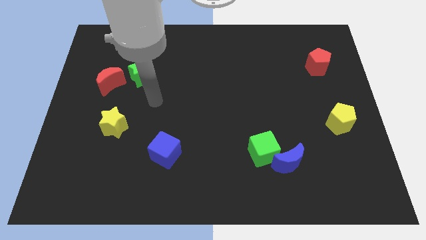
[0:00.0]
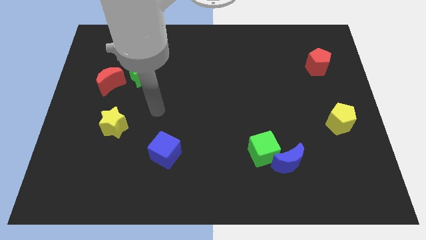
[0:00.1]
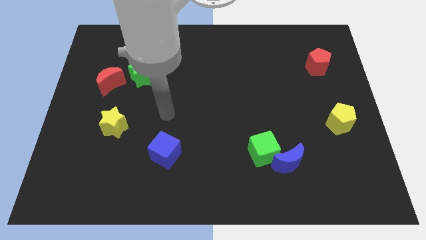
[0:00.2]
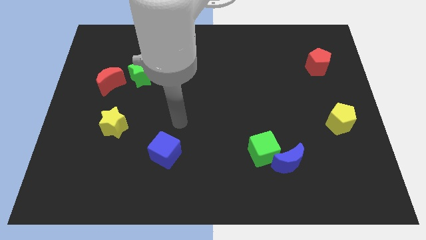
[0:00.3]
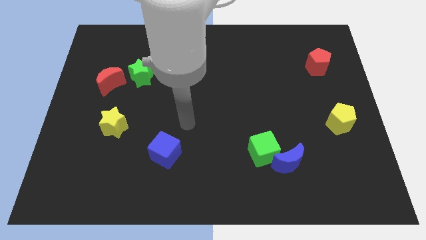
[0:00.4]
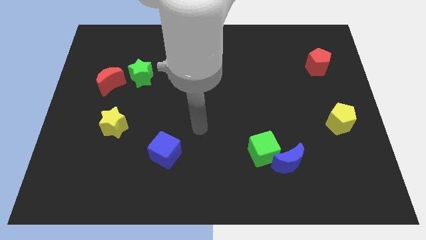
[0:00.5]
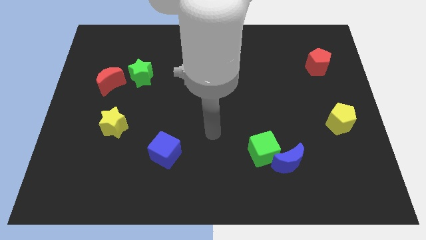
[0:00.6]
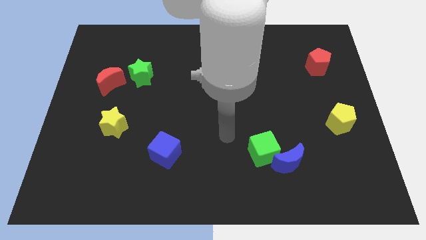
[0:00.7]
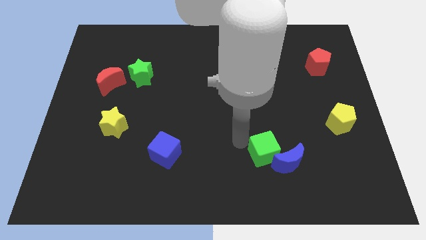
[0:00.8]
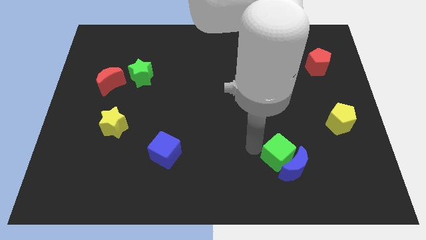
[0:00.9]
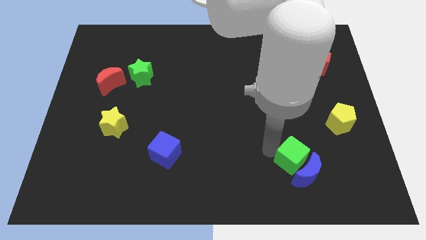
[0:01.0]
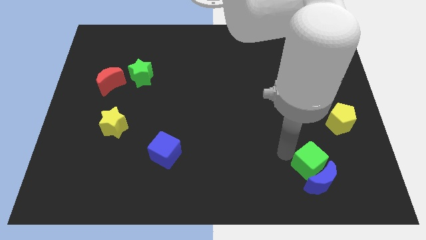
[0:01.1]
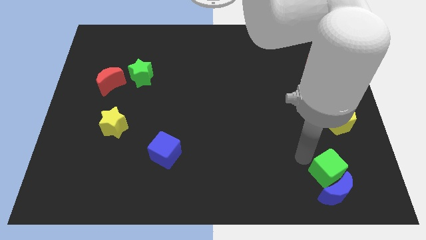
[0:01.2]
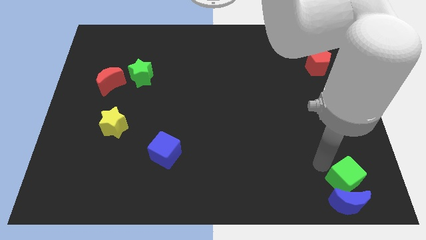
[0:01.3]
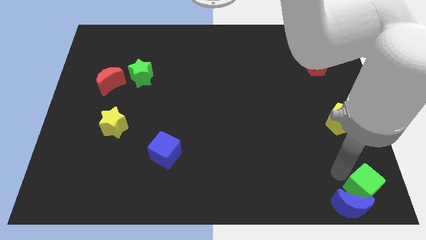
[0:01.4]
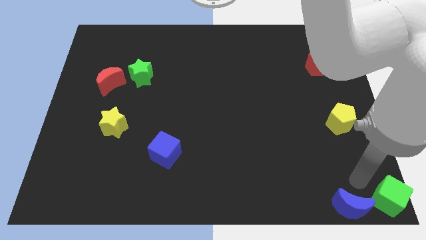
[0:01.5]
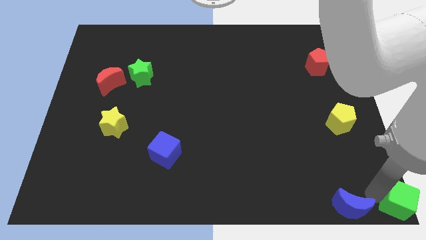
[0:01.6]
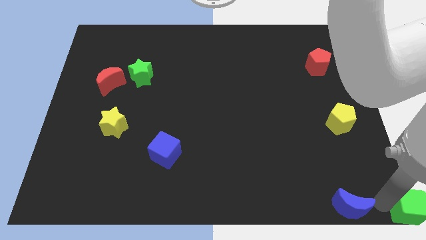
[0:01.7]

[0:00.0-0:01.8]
move the blue moon away from the green cube

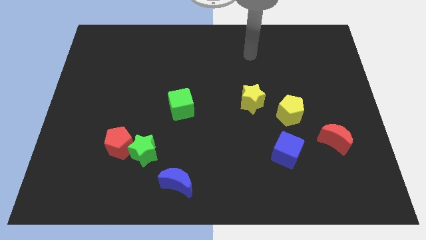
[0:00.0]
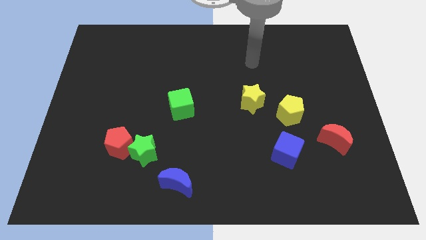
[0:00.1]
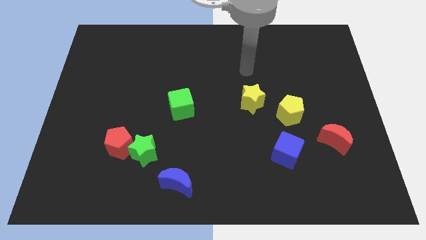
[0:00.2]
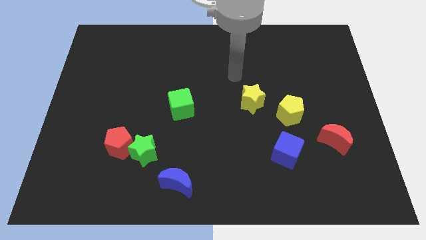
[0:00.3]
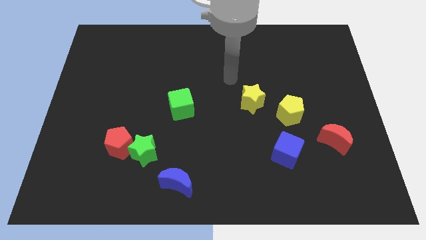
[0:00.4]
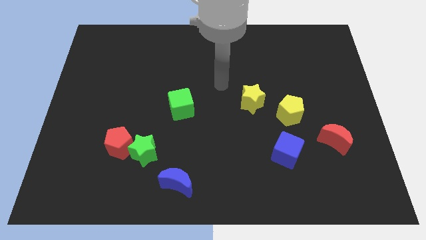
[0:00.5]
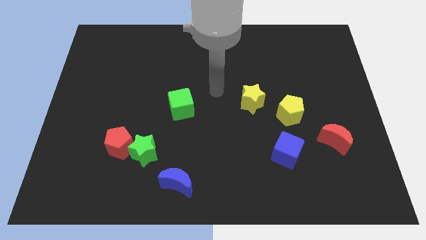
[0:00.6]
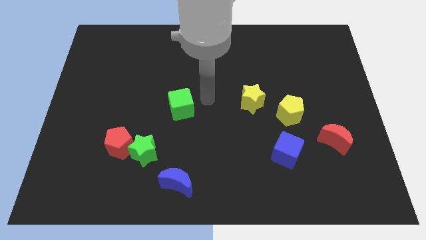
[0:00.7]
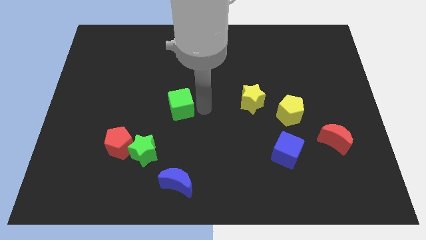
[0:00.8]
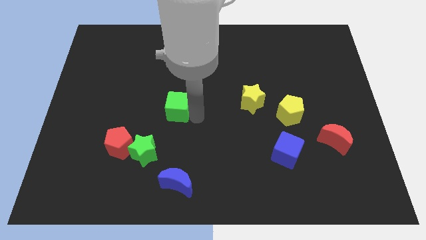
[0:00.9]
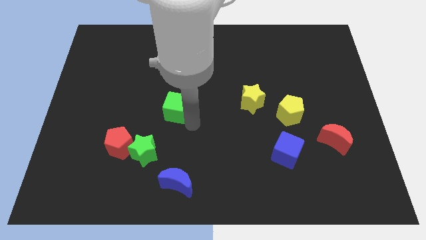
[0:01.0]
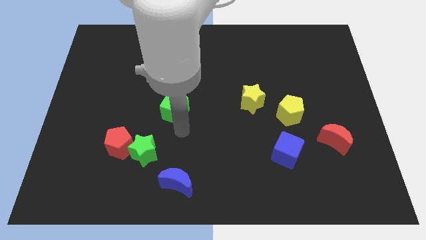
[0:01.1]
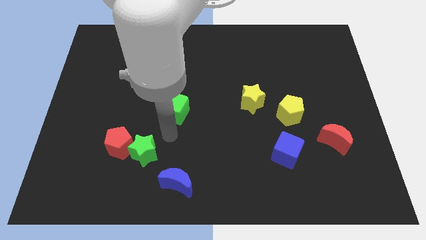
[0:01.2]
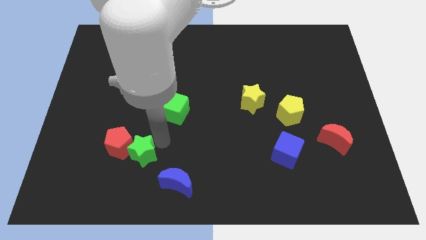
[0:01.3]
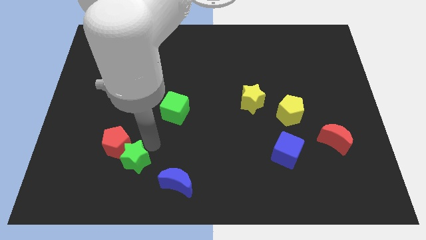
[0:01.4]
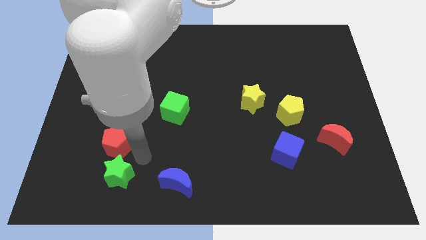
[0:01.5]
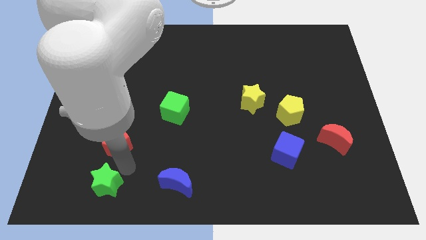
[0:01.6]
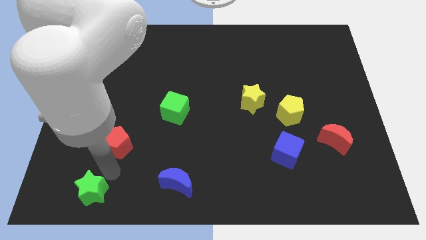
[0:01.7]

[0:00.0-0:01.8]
move the red pentagon away from the green star

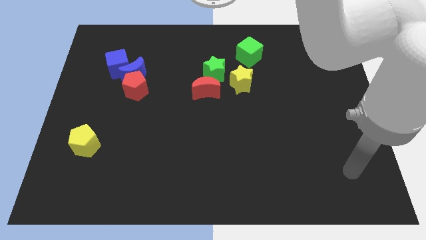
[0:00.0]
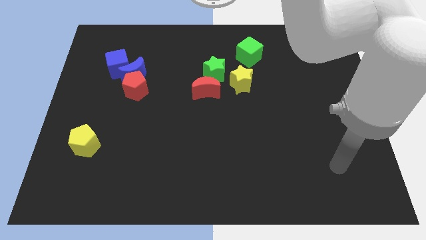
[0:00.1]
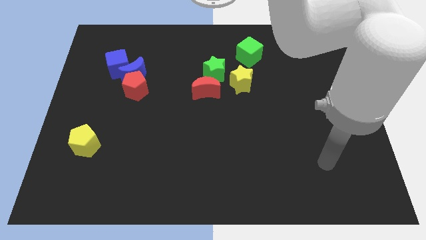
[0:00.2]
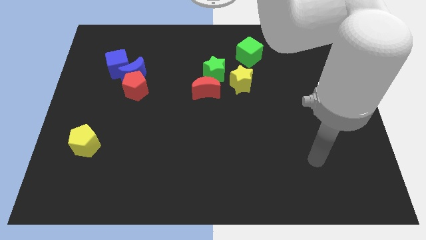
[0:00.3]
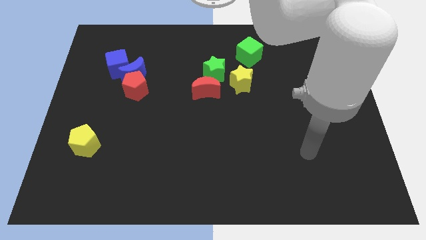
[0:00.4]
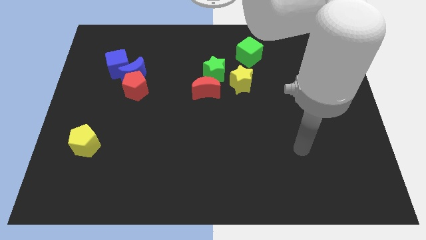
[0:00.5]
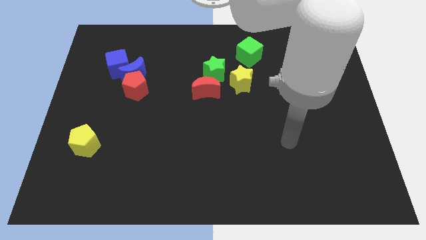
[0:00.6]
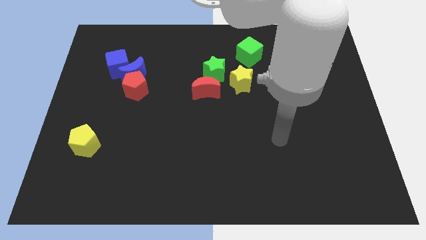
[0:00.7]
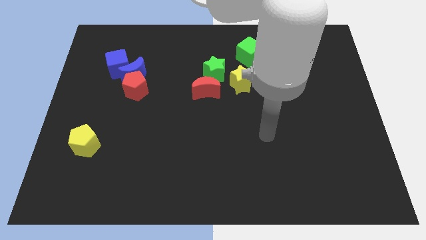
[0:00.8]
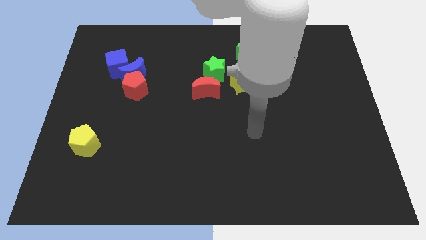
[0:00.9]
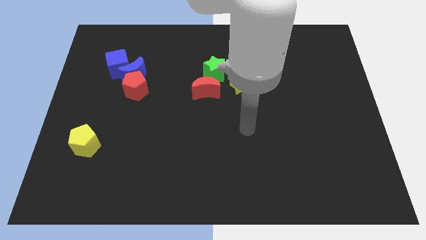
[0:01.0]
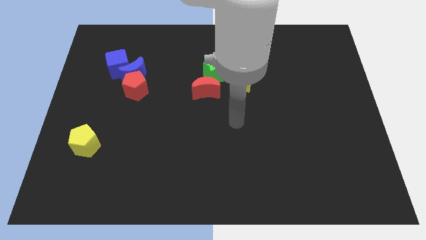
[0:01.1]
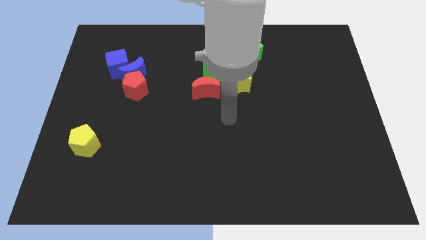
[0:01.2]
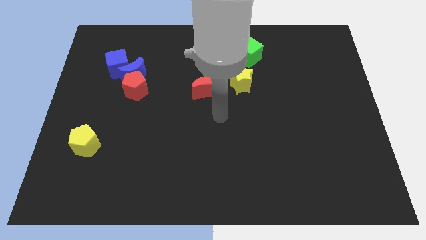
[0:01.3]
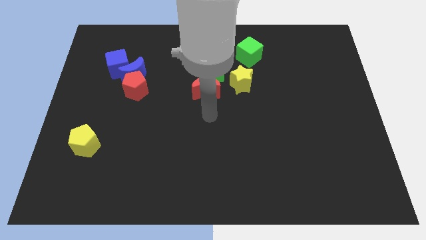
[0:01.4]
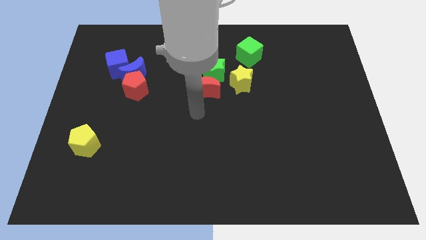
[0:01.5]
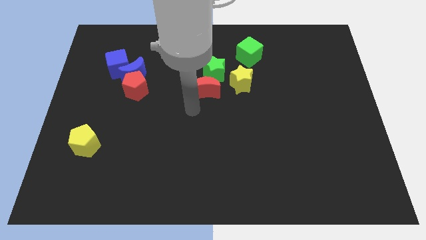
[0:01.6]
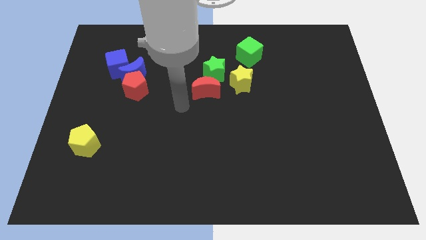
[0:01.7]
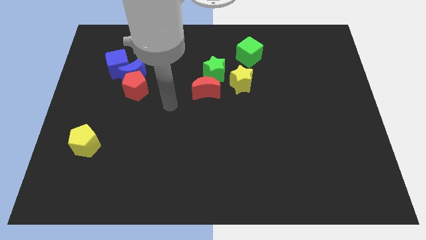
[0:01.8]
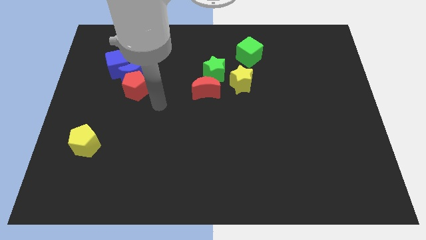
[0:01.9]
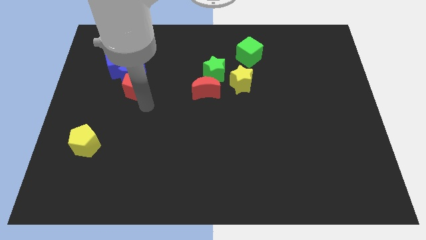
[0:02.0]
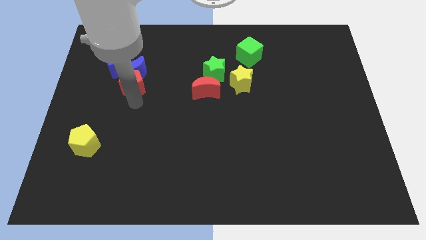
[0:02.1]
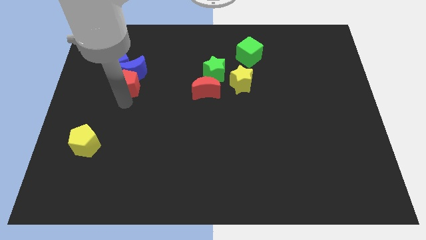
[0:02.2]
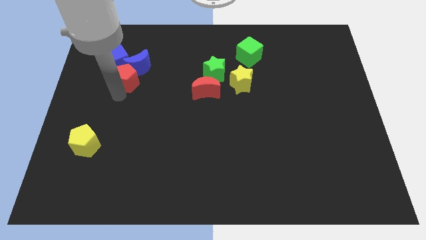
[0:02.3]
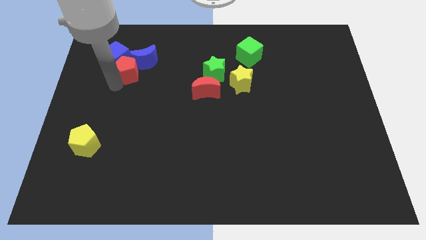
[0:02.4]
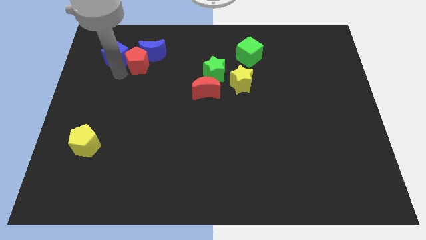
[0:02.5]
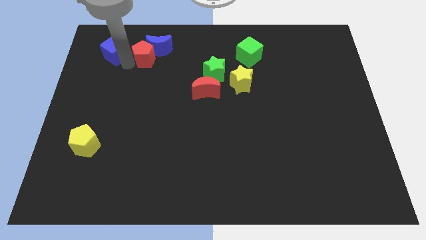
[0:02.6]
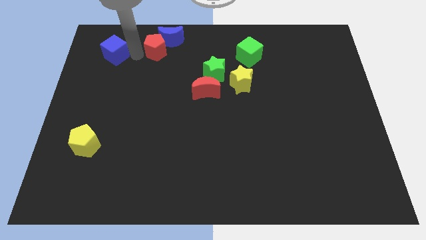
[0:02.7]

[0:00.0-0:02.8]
separate the blue moon from the red pentagon and blue cube

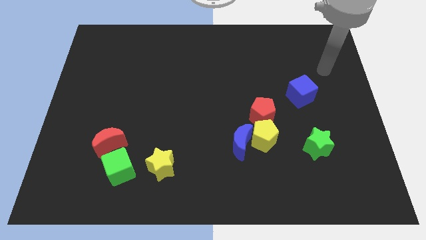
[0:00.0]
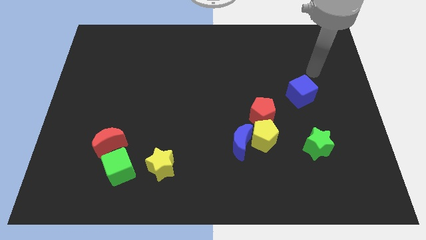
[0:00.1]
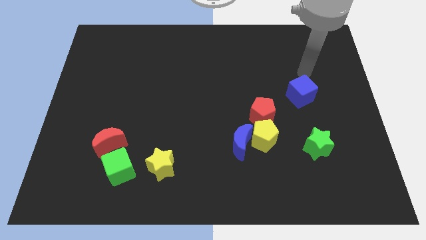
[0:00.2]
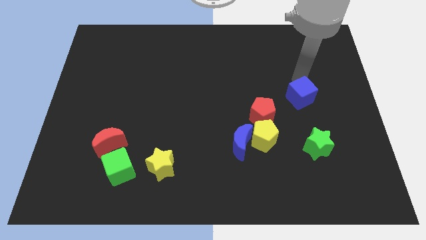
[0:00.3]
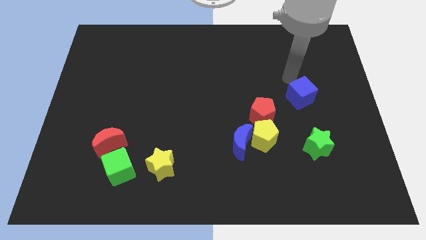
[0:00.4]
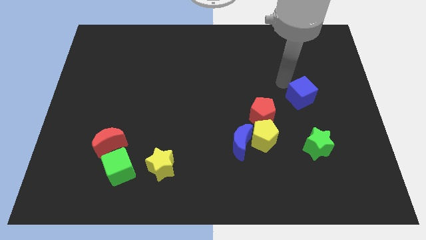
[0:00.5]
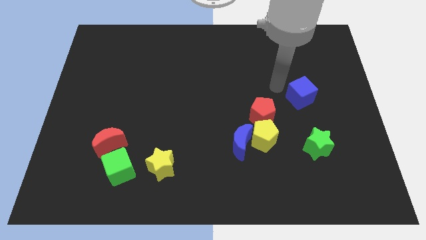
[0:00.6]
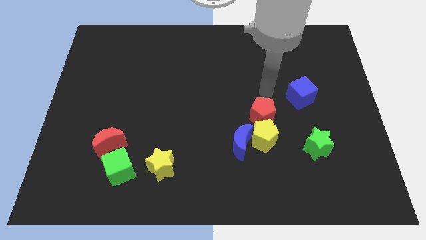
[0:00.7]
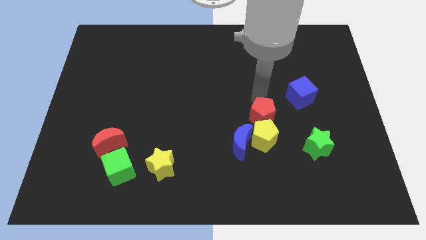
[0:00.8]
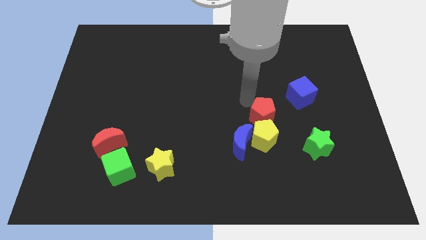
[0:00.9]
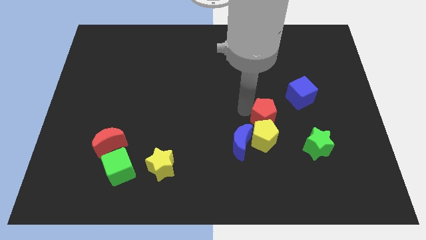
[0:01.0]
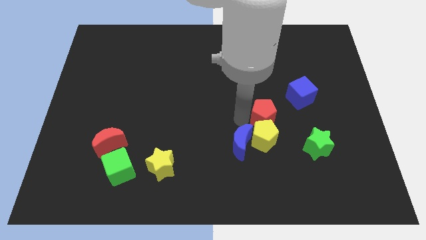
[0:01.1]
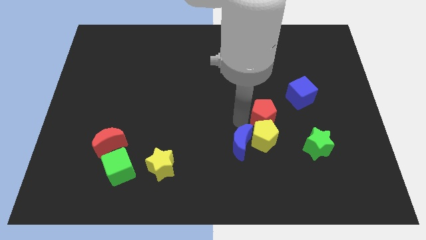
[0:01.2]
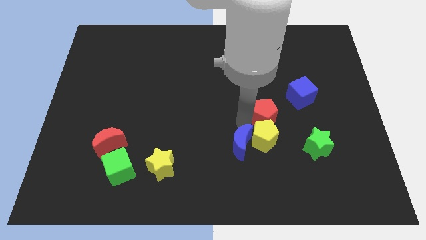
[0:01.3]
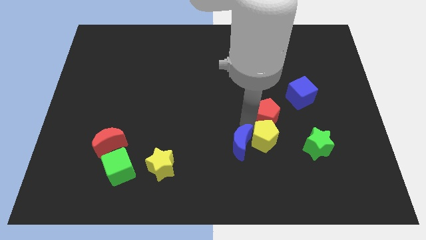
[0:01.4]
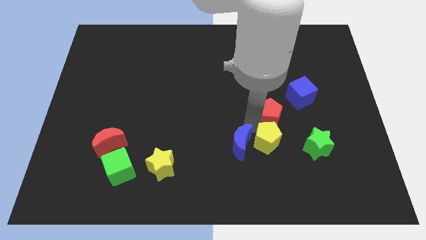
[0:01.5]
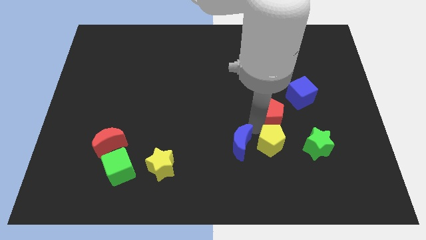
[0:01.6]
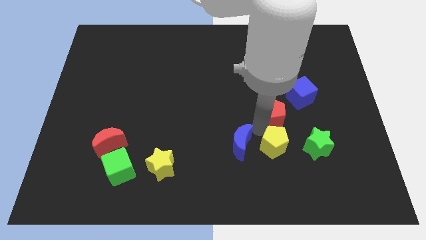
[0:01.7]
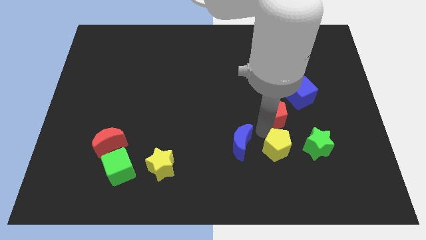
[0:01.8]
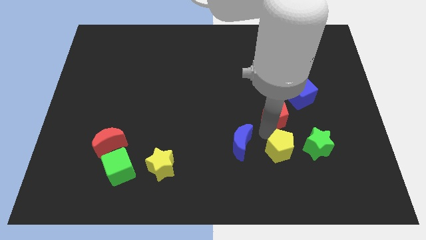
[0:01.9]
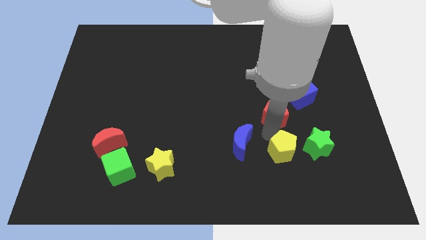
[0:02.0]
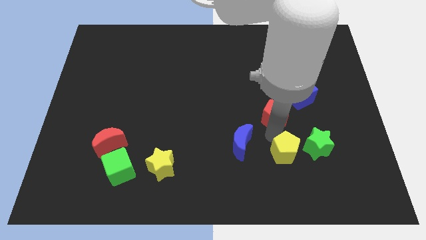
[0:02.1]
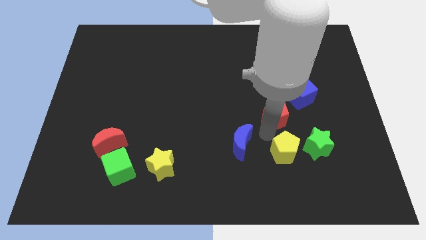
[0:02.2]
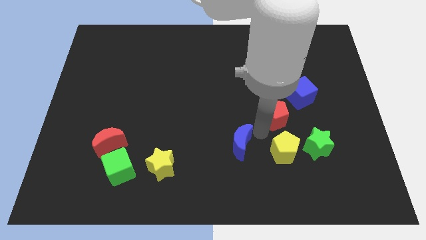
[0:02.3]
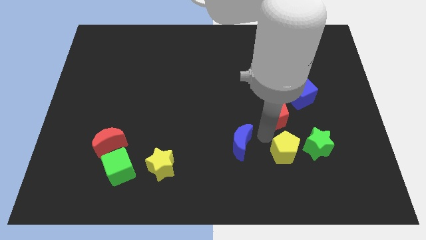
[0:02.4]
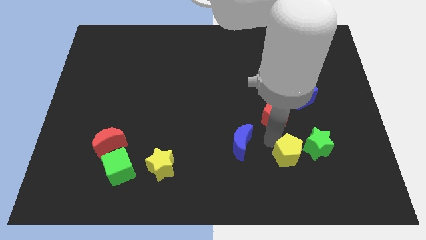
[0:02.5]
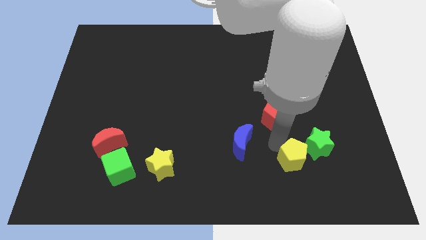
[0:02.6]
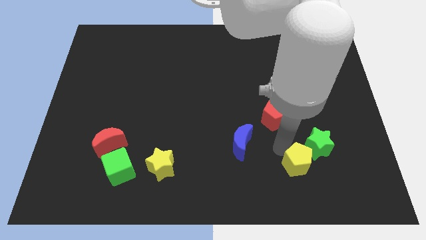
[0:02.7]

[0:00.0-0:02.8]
pull the yellow pentagon apart from the blue moon and red pentagon
